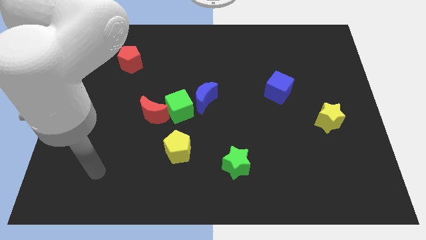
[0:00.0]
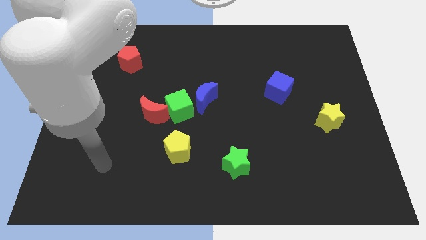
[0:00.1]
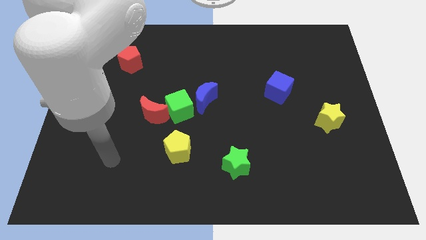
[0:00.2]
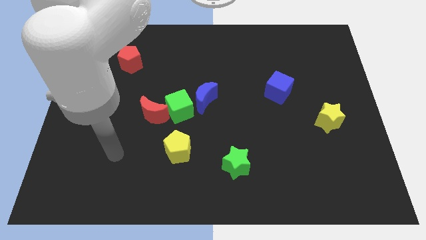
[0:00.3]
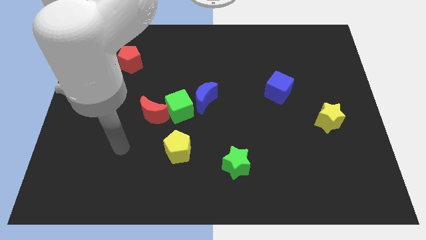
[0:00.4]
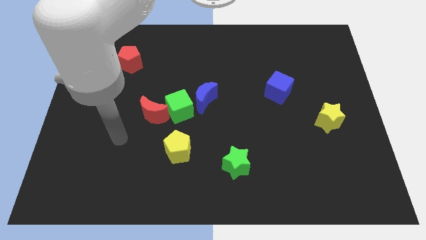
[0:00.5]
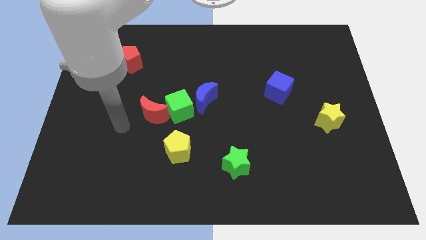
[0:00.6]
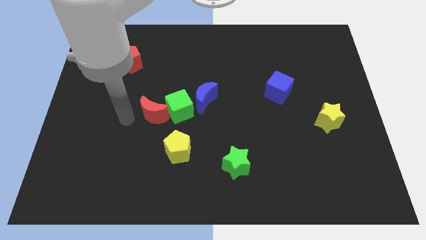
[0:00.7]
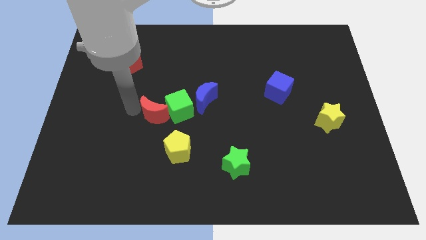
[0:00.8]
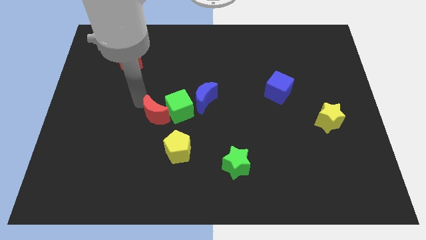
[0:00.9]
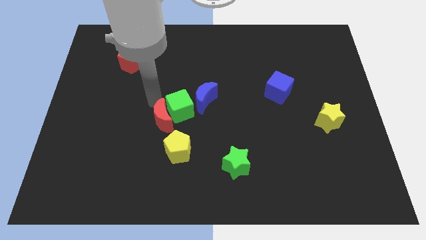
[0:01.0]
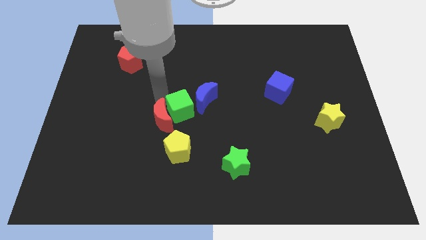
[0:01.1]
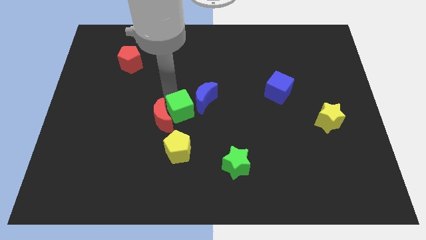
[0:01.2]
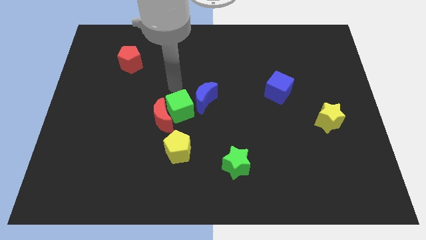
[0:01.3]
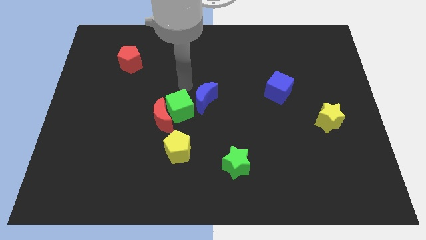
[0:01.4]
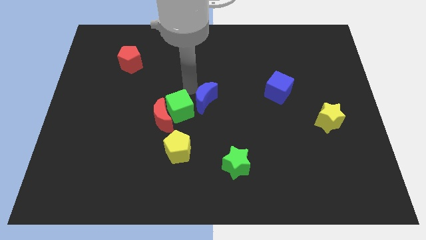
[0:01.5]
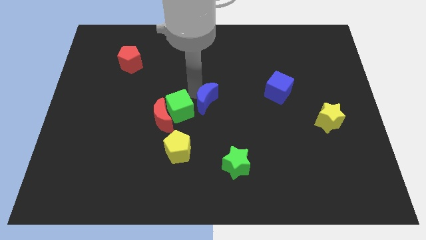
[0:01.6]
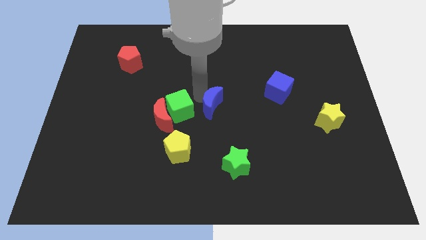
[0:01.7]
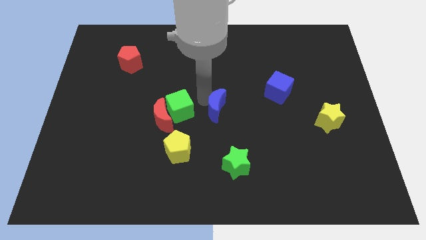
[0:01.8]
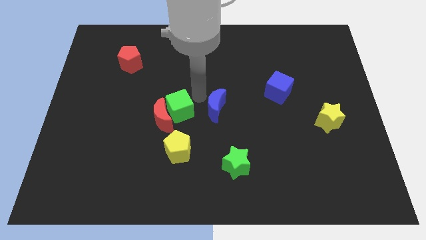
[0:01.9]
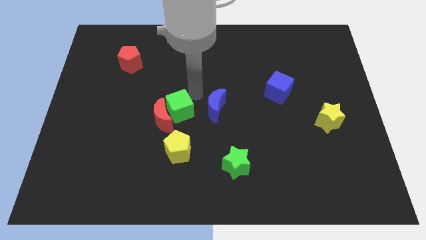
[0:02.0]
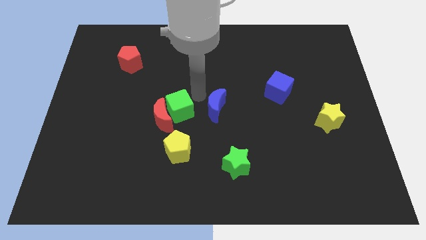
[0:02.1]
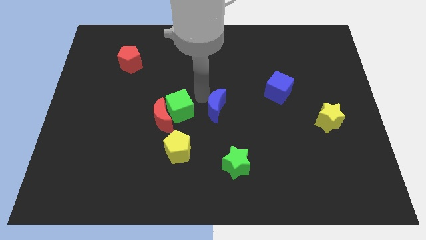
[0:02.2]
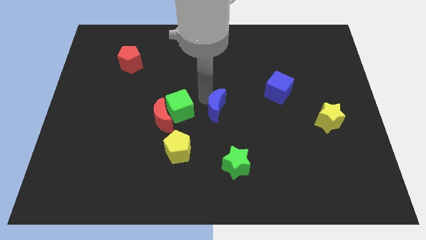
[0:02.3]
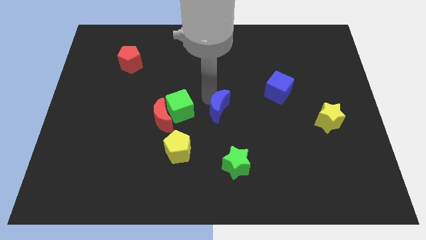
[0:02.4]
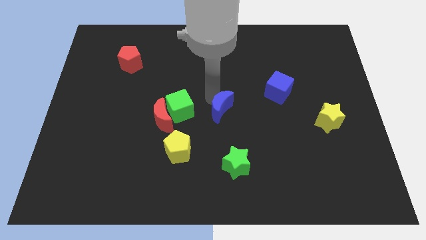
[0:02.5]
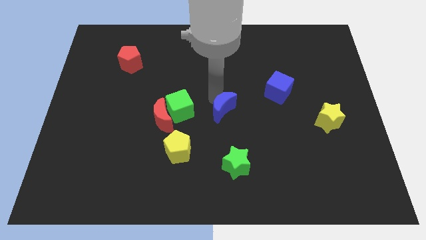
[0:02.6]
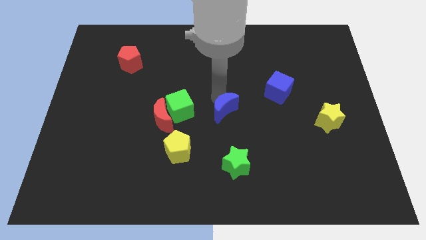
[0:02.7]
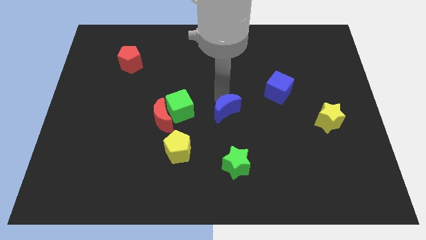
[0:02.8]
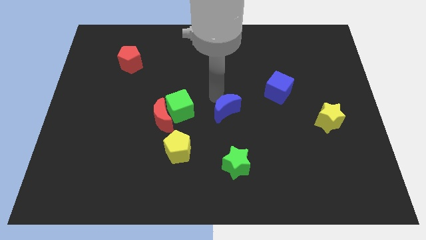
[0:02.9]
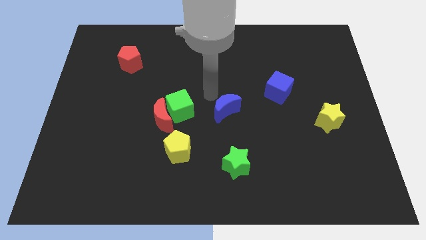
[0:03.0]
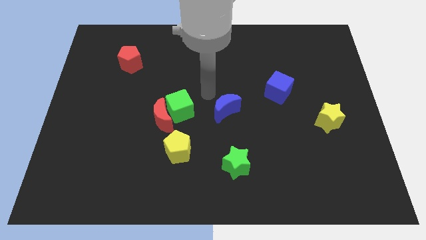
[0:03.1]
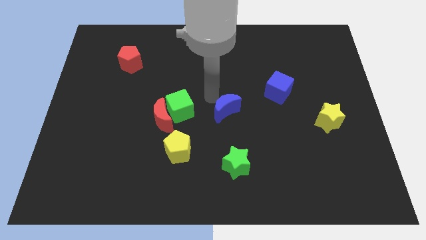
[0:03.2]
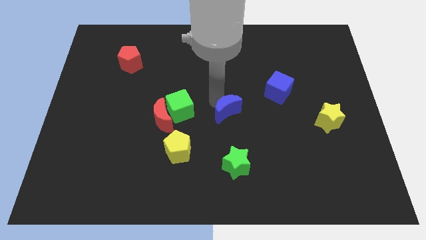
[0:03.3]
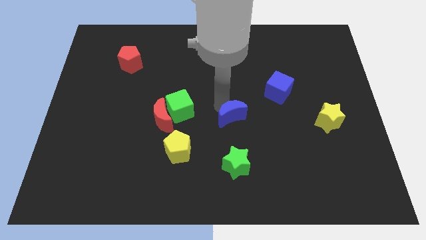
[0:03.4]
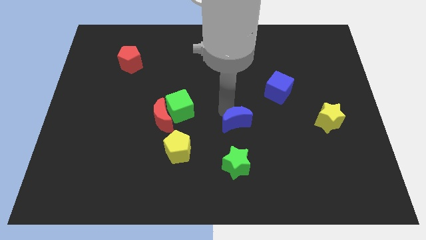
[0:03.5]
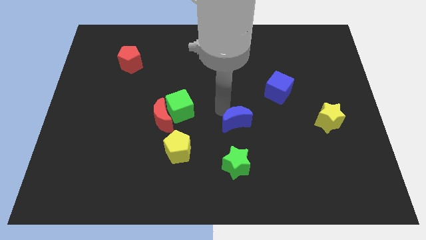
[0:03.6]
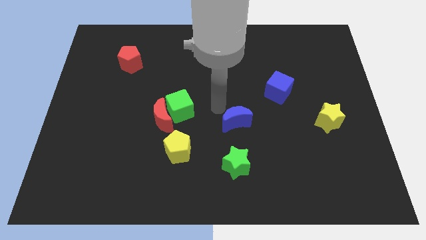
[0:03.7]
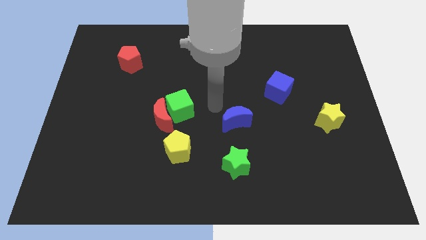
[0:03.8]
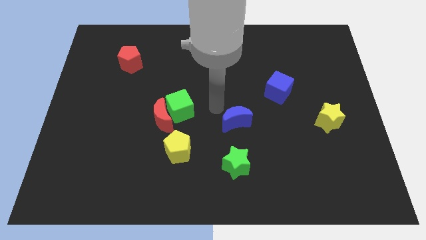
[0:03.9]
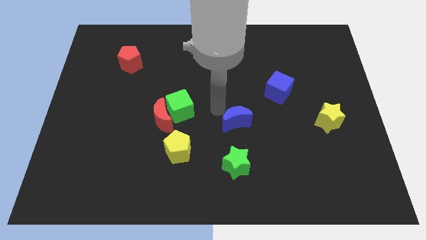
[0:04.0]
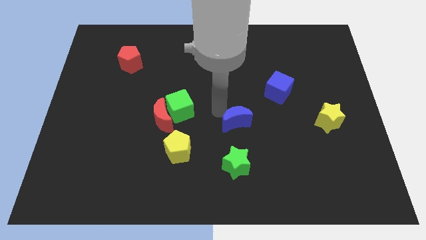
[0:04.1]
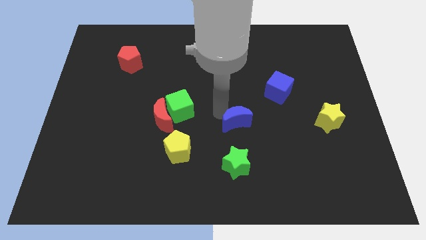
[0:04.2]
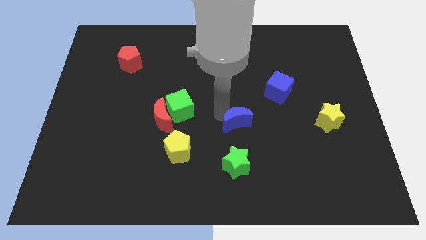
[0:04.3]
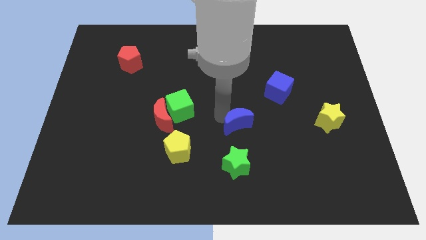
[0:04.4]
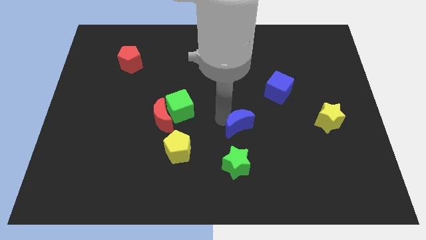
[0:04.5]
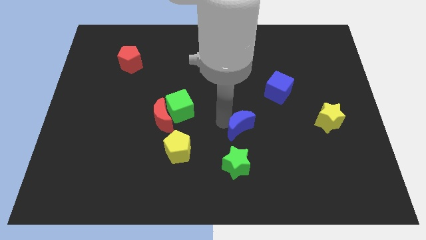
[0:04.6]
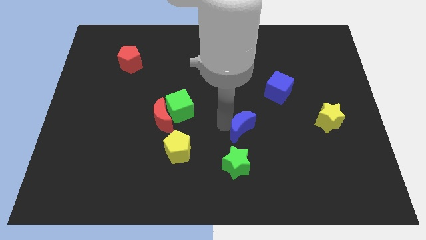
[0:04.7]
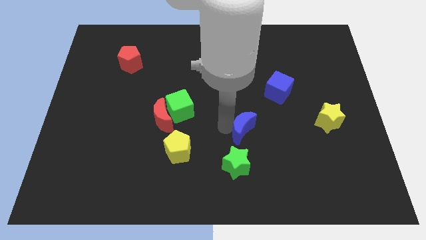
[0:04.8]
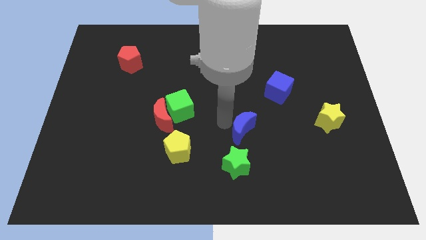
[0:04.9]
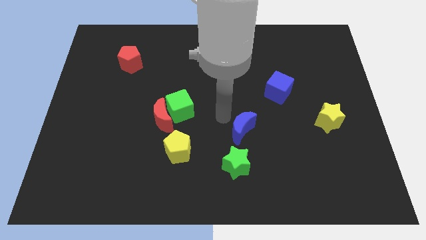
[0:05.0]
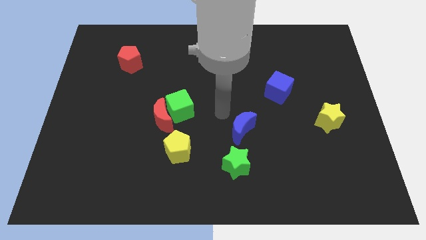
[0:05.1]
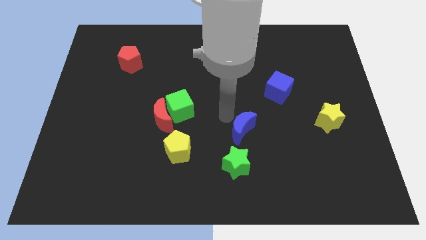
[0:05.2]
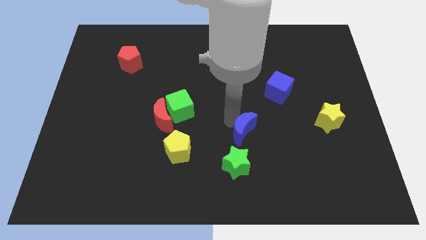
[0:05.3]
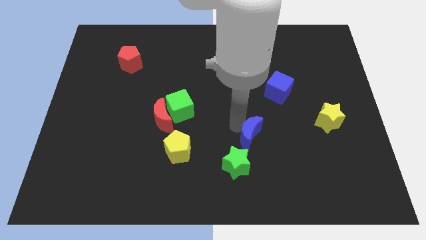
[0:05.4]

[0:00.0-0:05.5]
slide the blue moon to the top right of the green star

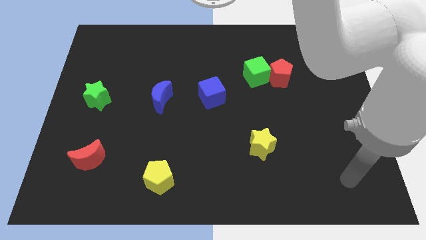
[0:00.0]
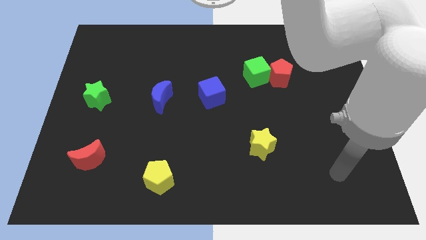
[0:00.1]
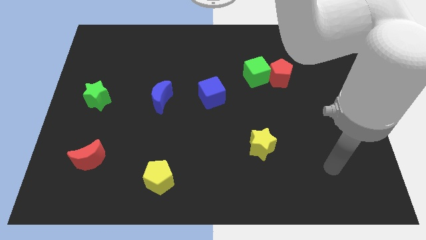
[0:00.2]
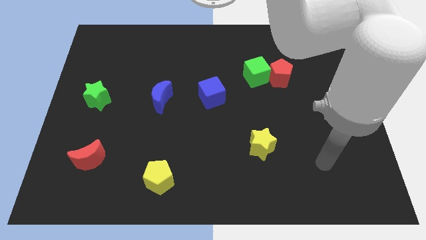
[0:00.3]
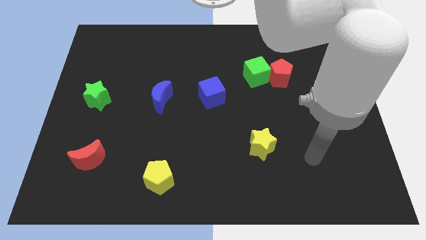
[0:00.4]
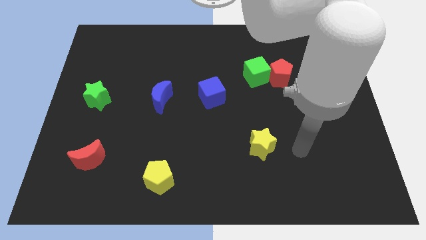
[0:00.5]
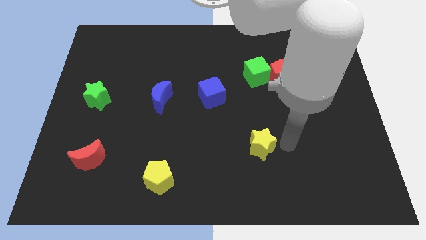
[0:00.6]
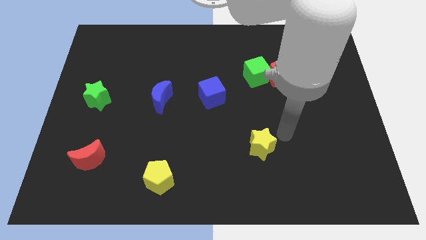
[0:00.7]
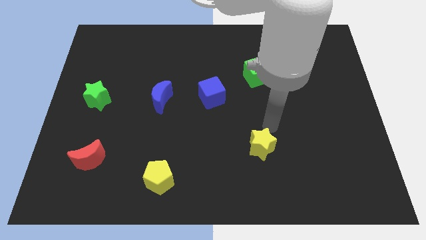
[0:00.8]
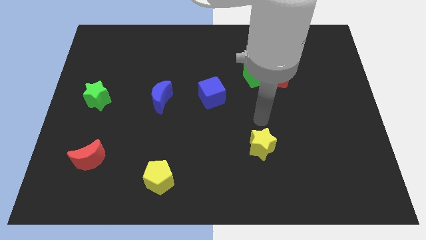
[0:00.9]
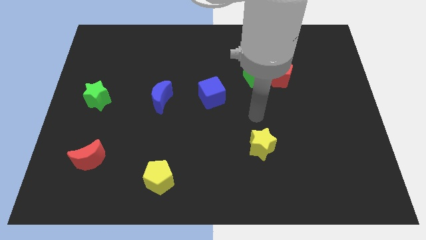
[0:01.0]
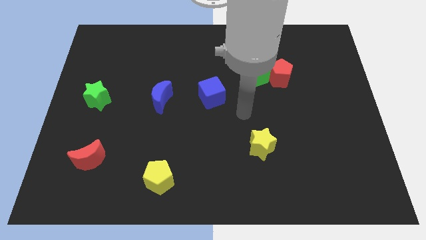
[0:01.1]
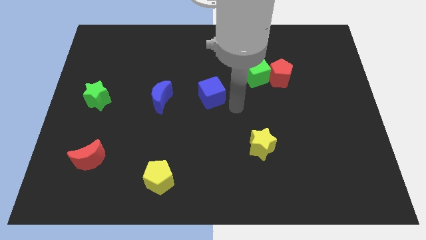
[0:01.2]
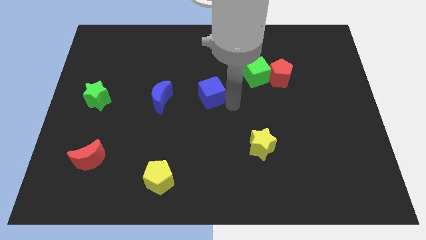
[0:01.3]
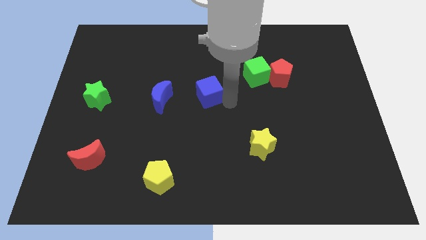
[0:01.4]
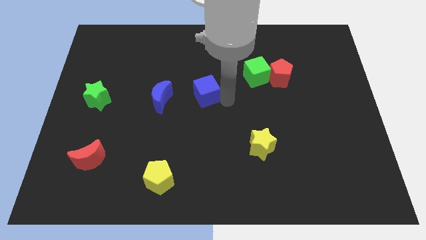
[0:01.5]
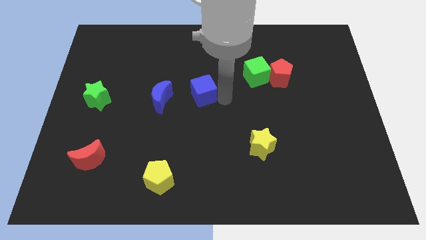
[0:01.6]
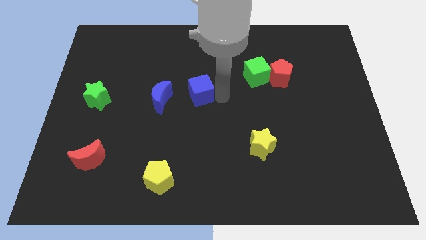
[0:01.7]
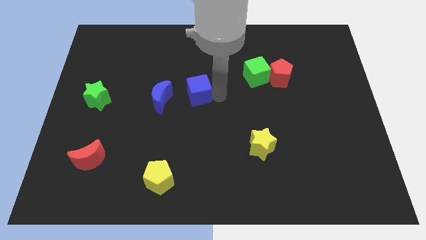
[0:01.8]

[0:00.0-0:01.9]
push the blue cube diagonally up and to the right of the blue moon
